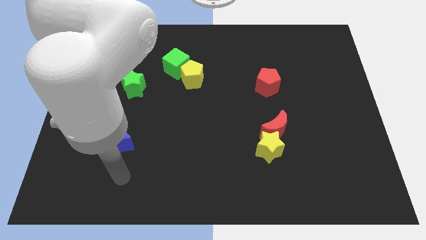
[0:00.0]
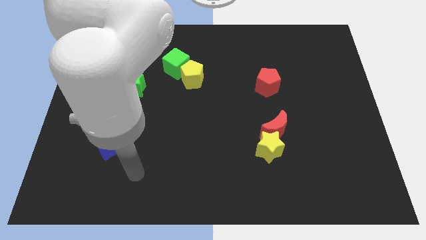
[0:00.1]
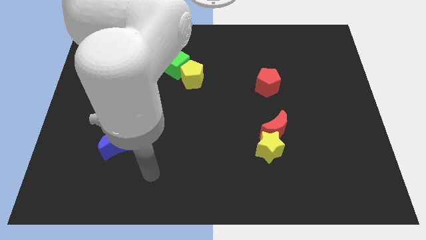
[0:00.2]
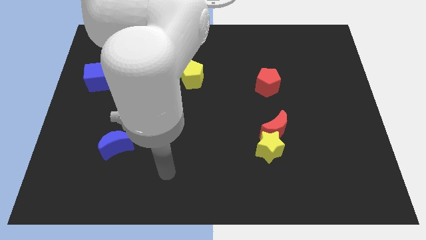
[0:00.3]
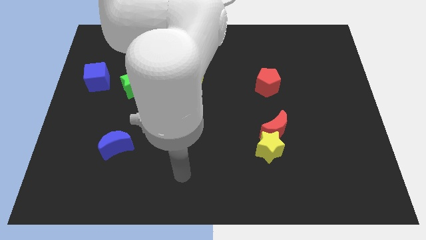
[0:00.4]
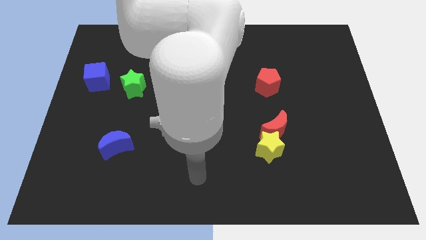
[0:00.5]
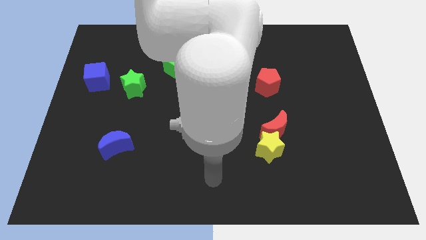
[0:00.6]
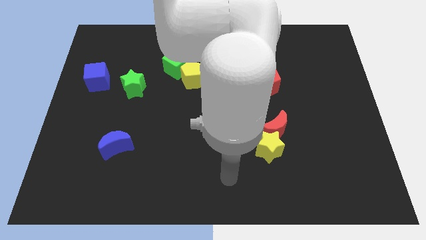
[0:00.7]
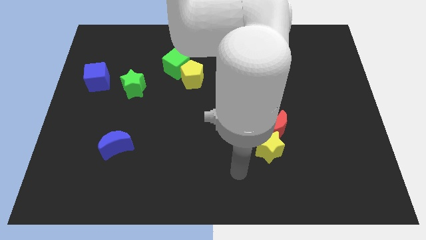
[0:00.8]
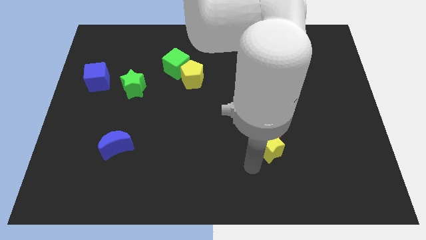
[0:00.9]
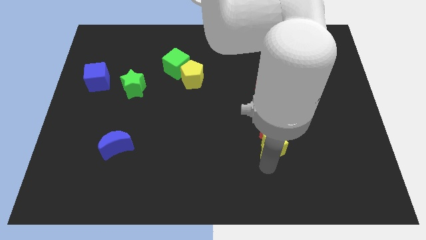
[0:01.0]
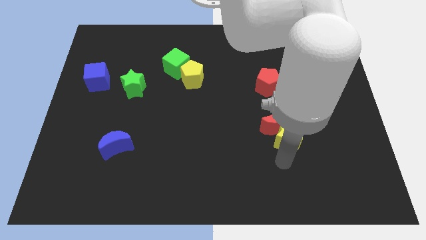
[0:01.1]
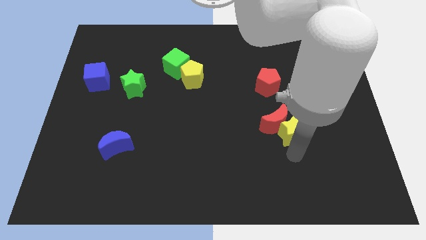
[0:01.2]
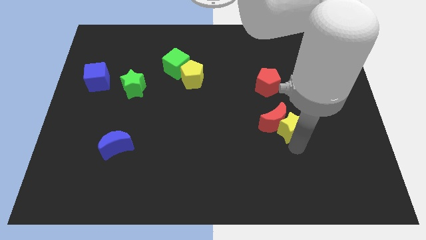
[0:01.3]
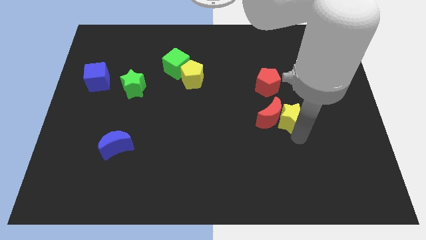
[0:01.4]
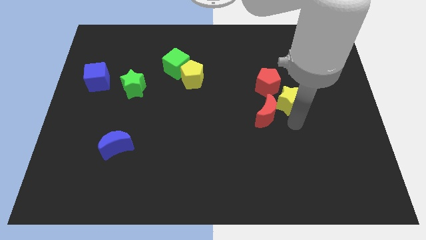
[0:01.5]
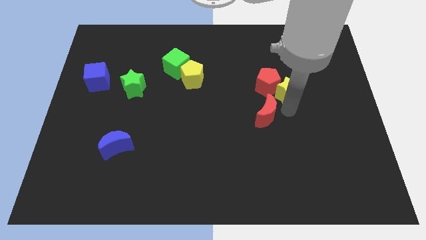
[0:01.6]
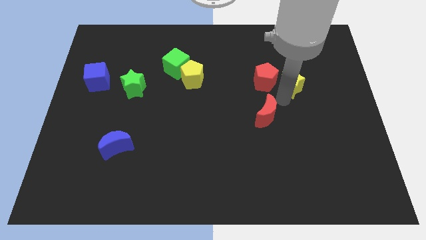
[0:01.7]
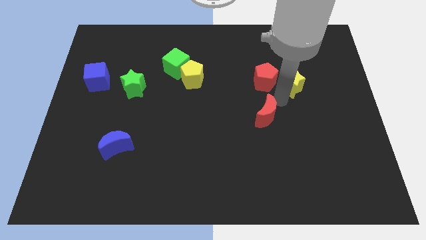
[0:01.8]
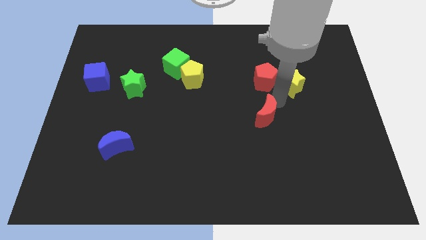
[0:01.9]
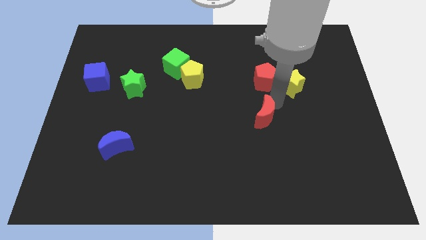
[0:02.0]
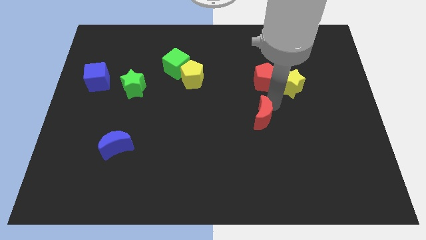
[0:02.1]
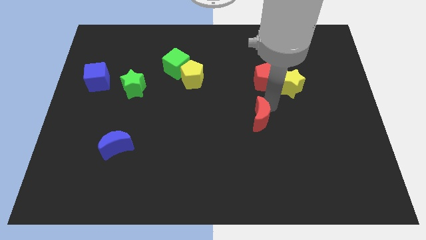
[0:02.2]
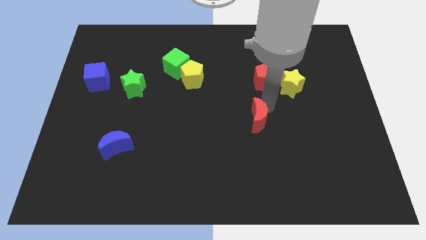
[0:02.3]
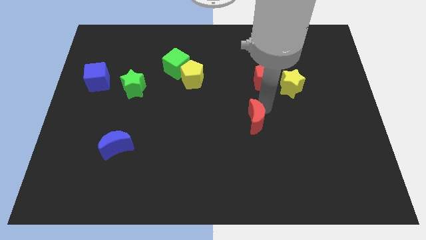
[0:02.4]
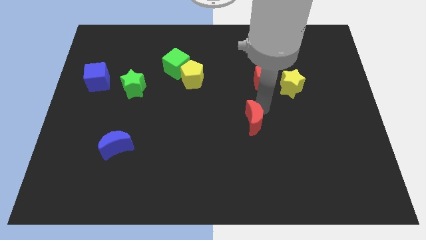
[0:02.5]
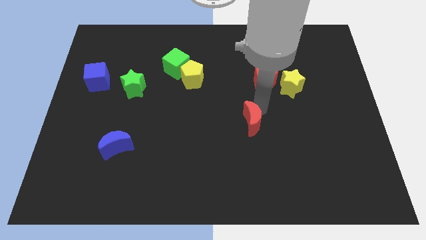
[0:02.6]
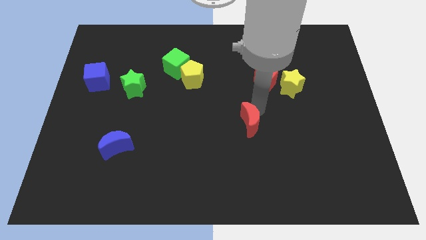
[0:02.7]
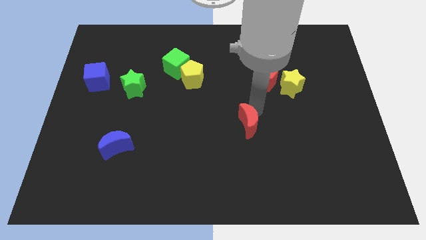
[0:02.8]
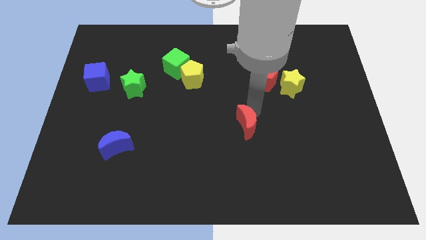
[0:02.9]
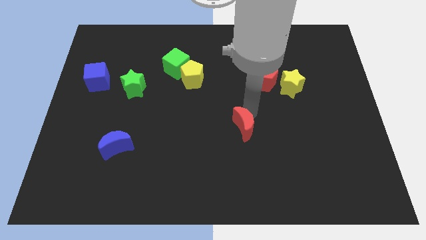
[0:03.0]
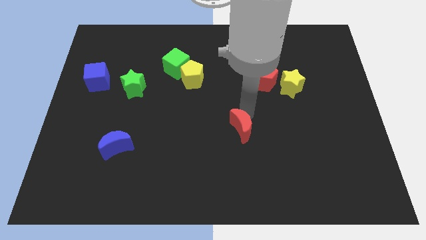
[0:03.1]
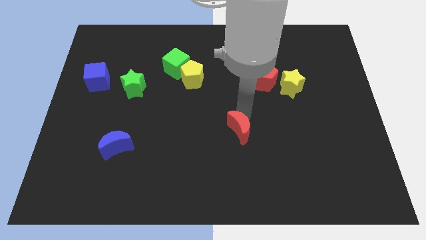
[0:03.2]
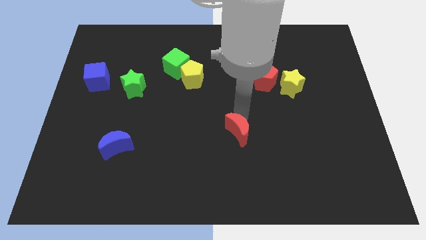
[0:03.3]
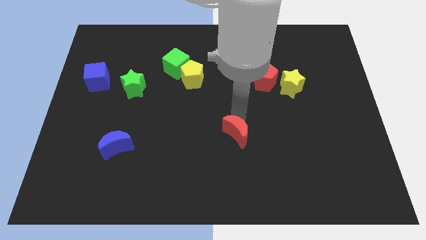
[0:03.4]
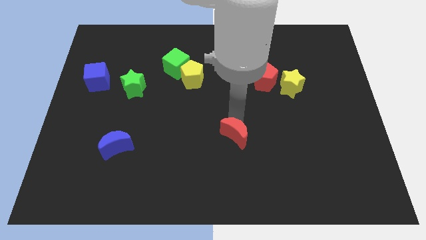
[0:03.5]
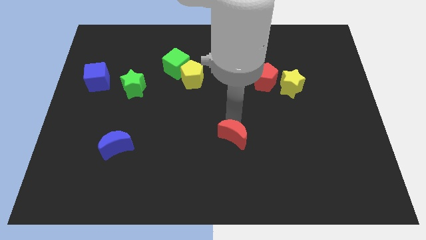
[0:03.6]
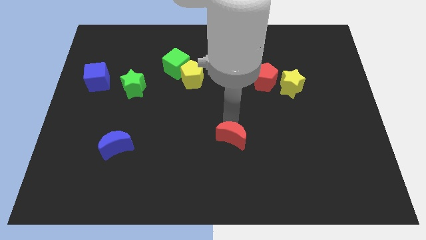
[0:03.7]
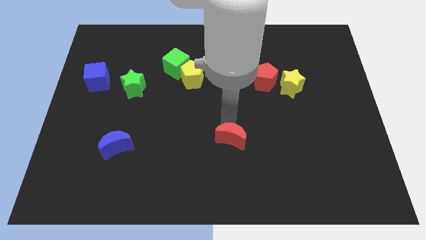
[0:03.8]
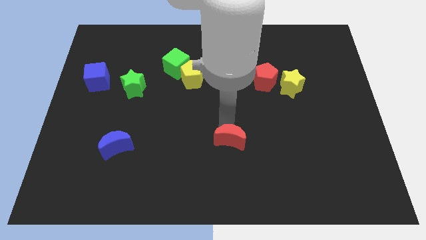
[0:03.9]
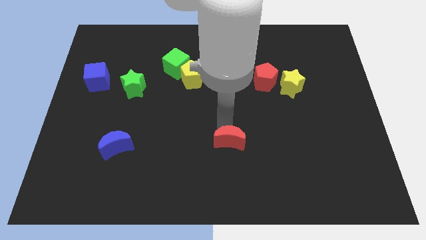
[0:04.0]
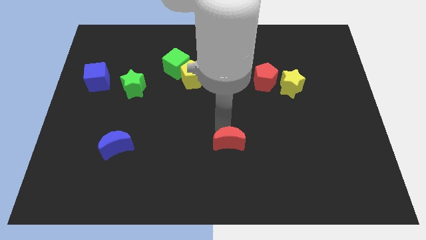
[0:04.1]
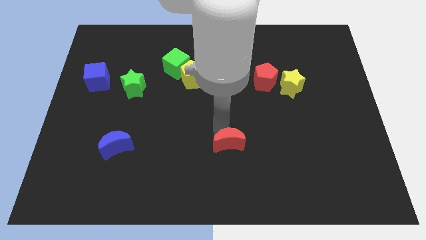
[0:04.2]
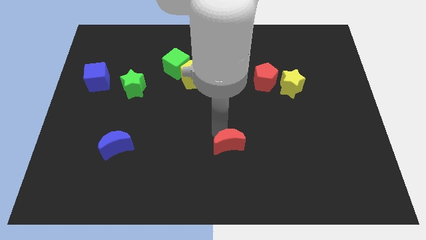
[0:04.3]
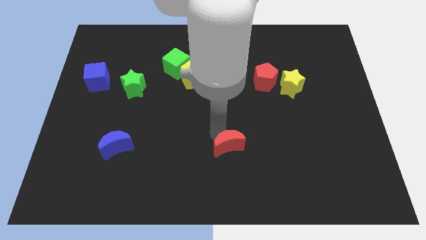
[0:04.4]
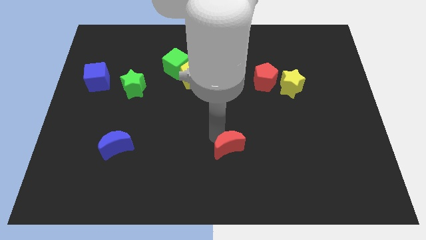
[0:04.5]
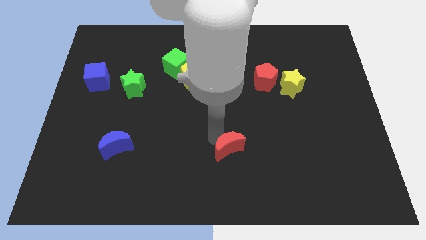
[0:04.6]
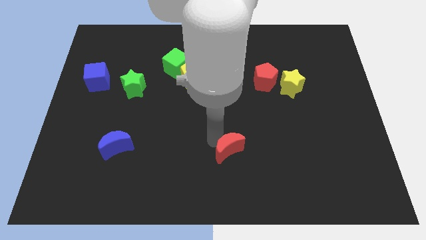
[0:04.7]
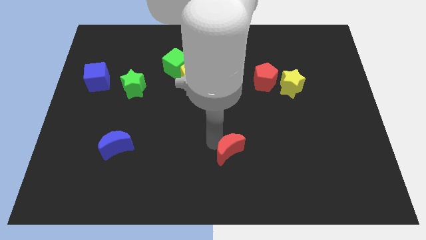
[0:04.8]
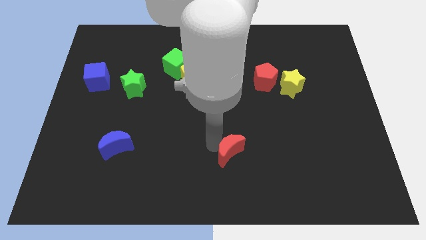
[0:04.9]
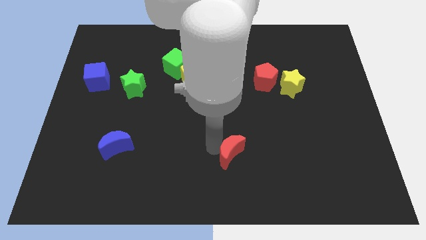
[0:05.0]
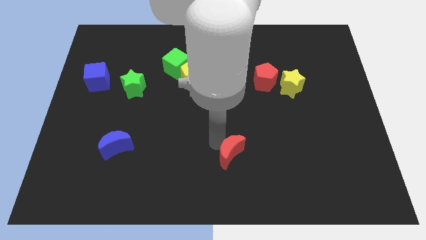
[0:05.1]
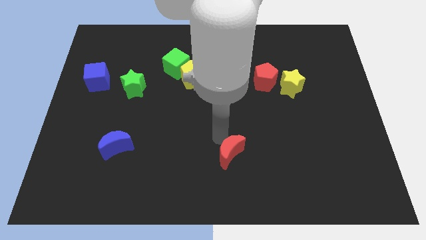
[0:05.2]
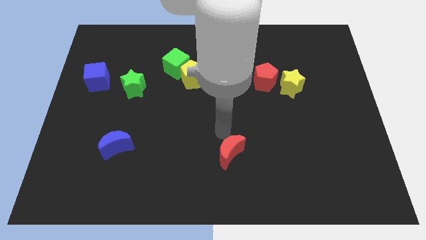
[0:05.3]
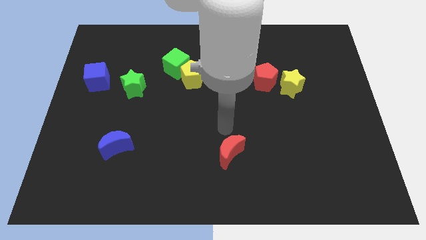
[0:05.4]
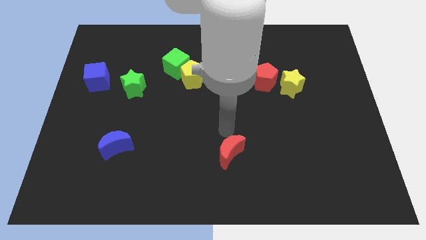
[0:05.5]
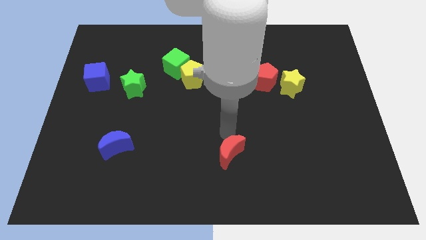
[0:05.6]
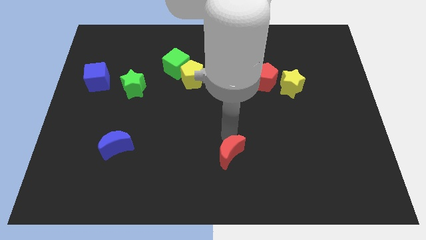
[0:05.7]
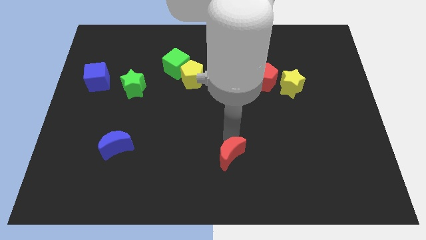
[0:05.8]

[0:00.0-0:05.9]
move the red moon to the bottom
